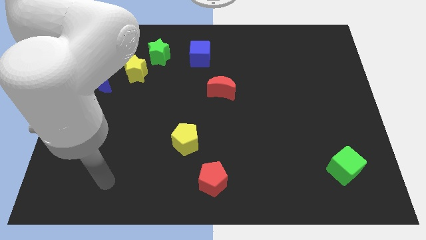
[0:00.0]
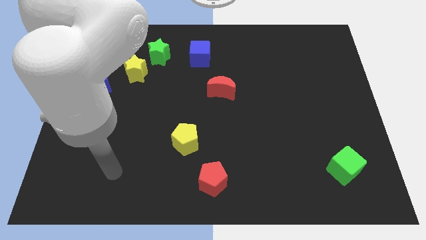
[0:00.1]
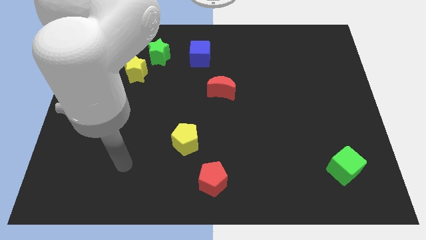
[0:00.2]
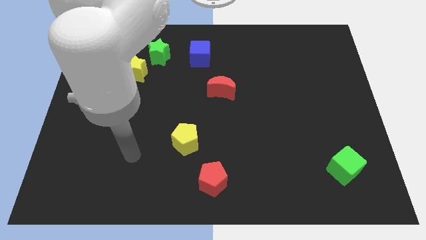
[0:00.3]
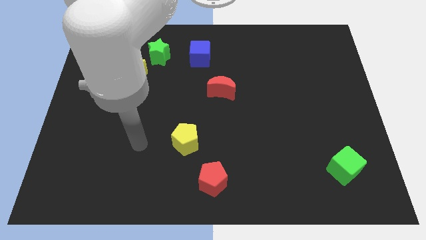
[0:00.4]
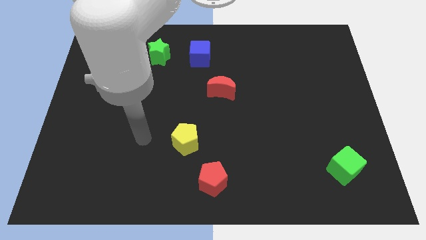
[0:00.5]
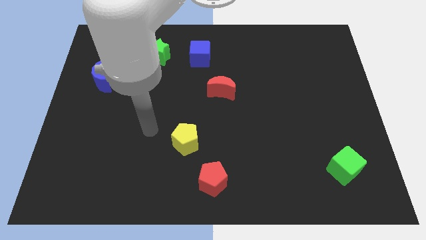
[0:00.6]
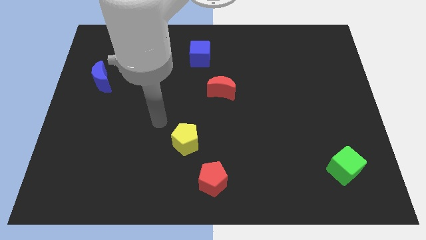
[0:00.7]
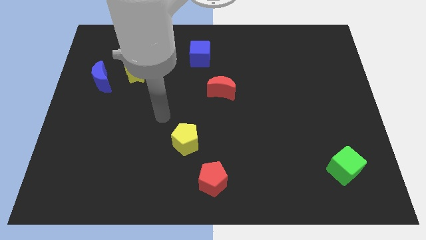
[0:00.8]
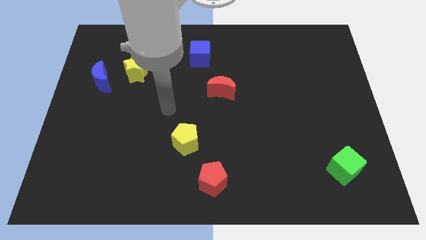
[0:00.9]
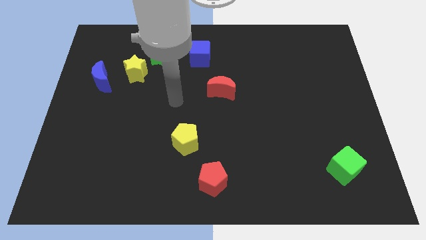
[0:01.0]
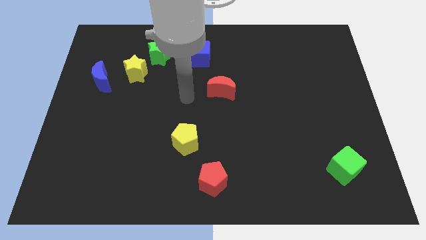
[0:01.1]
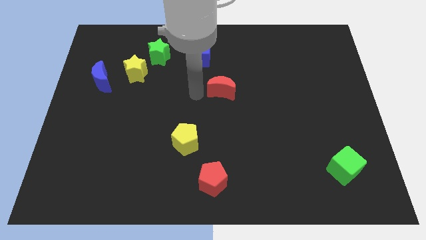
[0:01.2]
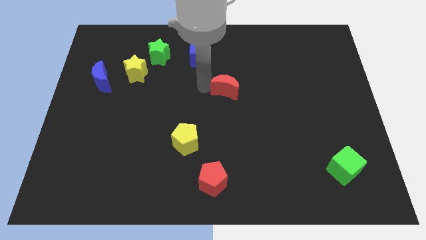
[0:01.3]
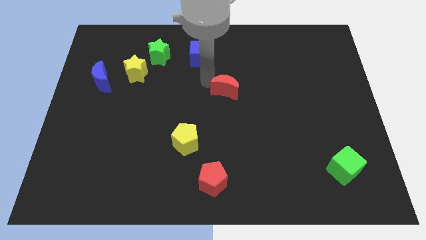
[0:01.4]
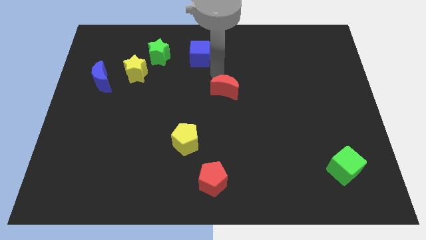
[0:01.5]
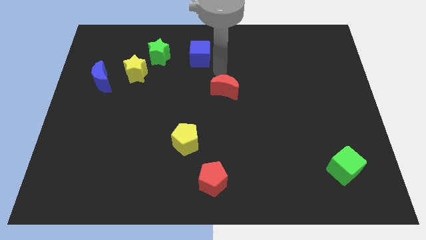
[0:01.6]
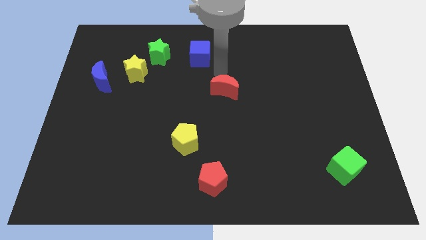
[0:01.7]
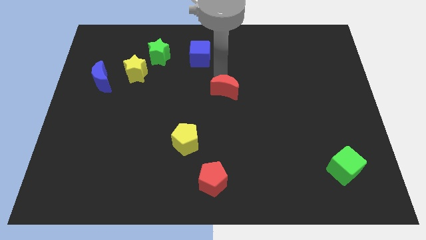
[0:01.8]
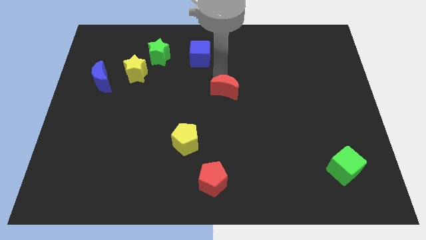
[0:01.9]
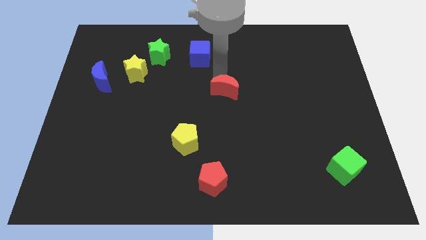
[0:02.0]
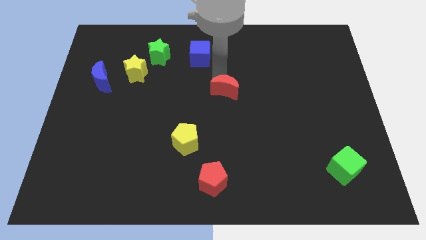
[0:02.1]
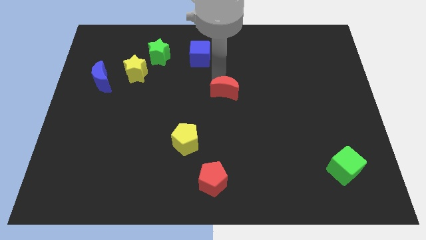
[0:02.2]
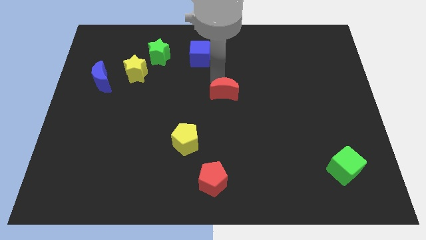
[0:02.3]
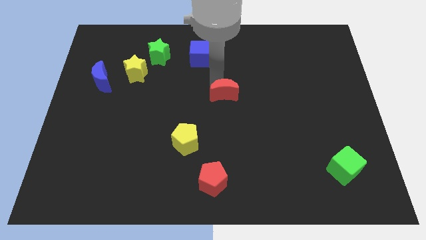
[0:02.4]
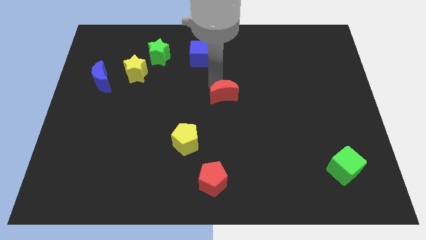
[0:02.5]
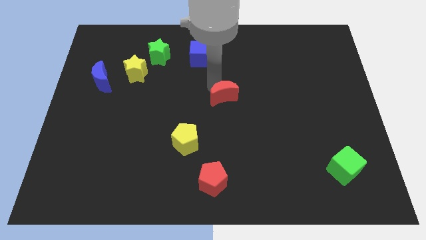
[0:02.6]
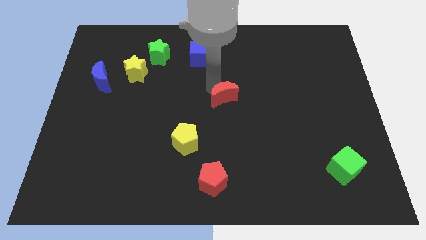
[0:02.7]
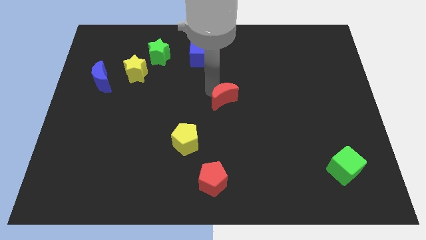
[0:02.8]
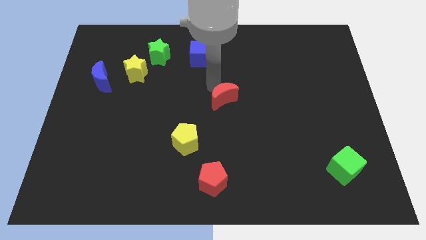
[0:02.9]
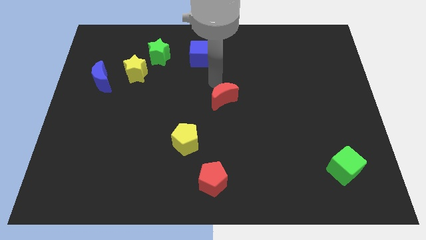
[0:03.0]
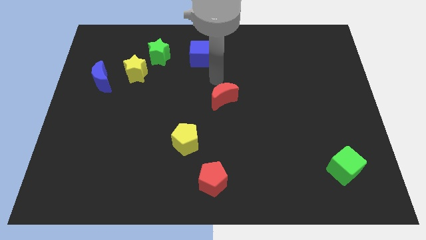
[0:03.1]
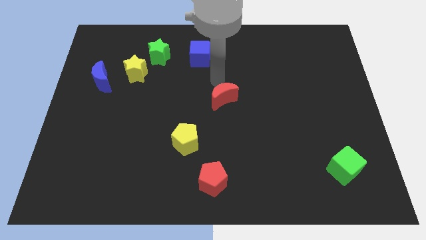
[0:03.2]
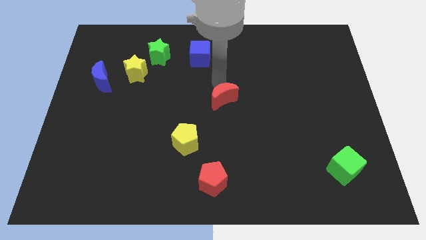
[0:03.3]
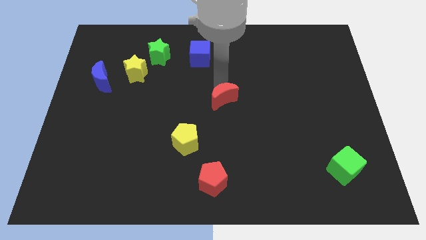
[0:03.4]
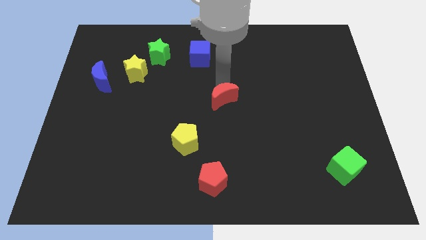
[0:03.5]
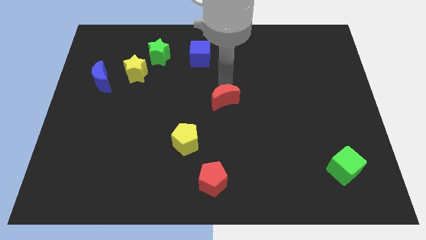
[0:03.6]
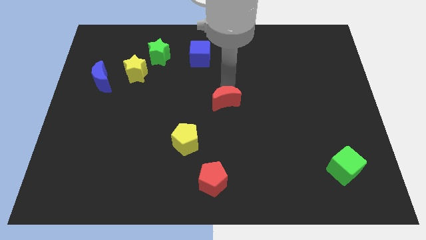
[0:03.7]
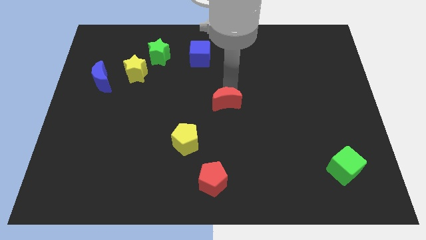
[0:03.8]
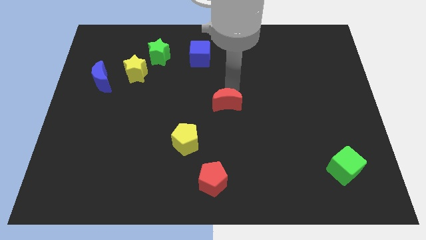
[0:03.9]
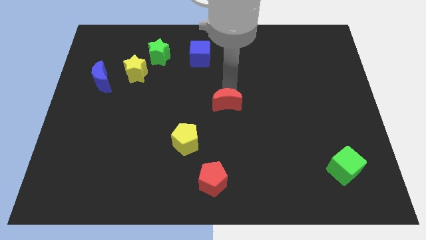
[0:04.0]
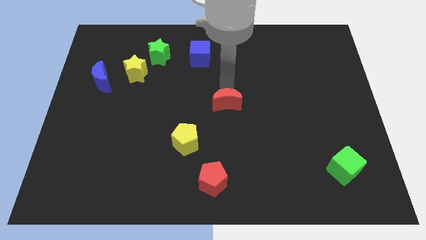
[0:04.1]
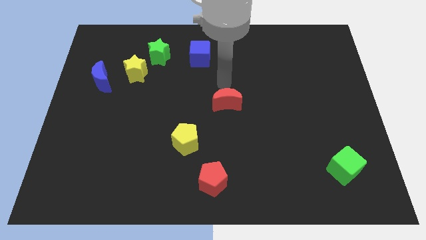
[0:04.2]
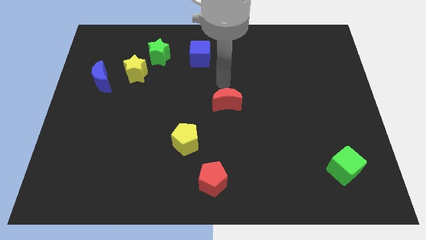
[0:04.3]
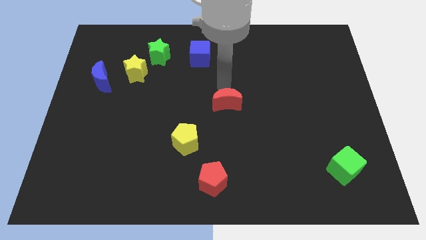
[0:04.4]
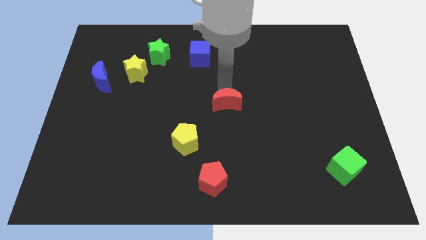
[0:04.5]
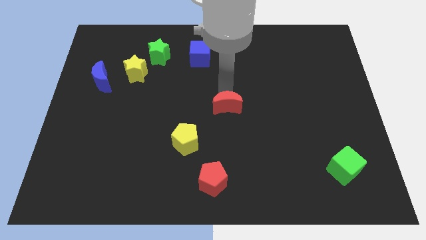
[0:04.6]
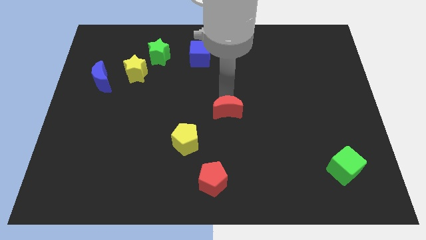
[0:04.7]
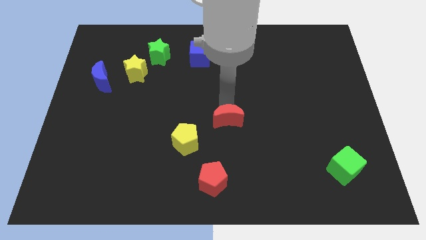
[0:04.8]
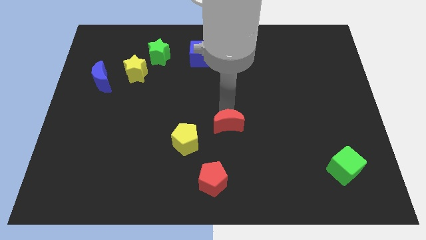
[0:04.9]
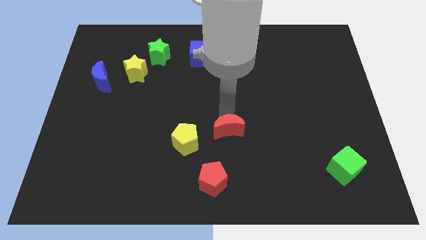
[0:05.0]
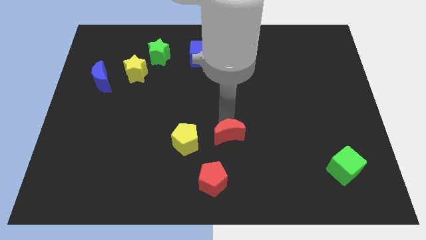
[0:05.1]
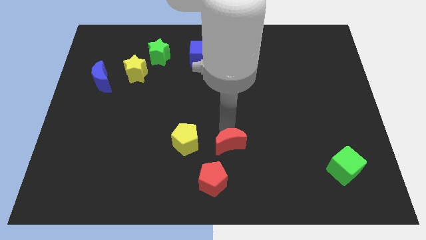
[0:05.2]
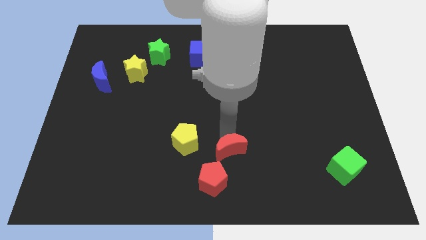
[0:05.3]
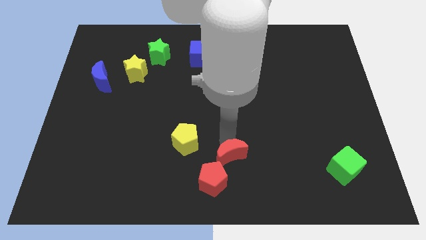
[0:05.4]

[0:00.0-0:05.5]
move the red moon to the bottom side

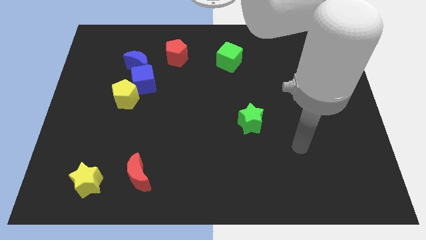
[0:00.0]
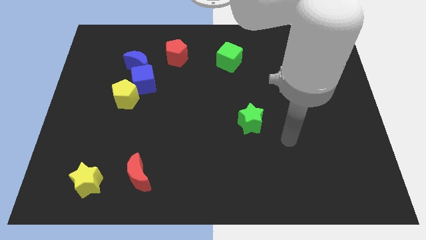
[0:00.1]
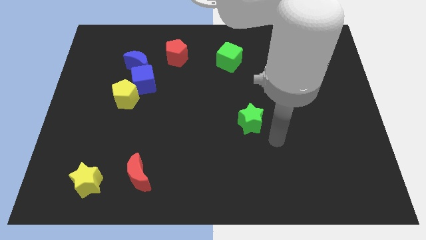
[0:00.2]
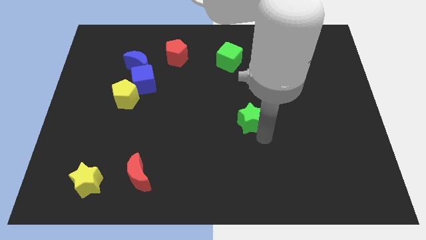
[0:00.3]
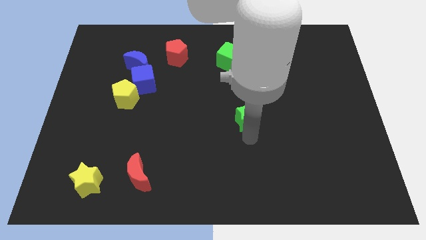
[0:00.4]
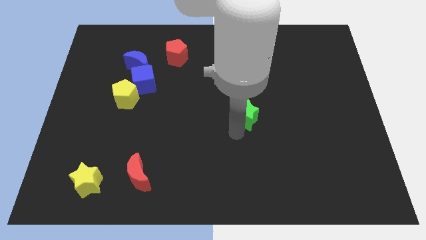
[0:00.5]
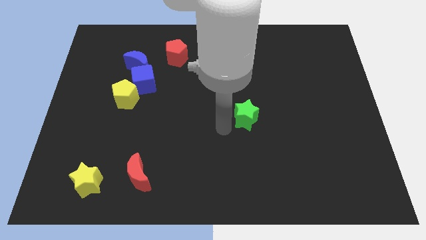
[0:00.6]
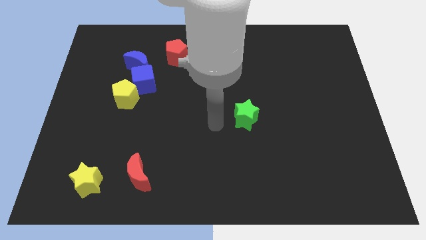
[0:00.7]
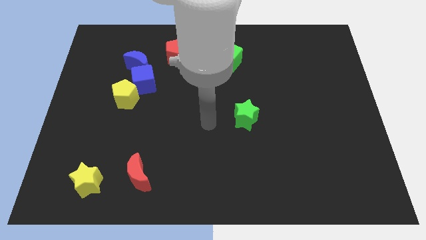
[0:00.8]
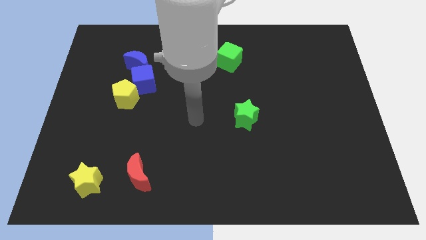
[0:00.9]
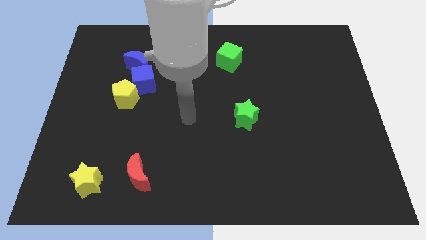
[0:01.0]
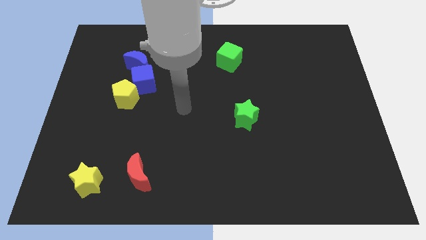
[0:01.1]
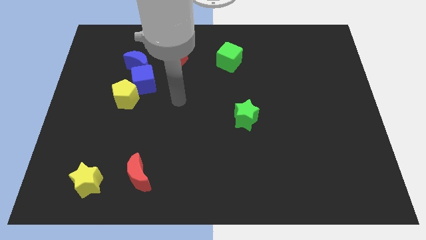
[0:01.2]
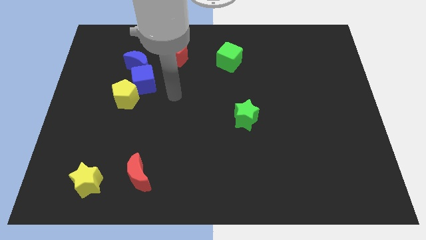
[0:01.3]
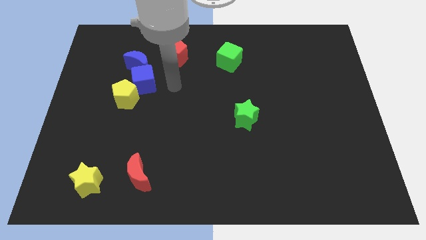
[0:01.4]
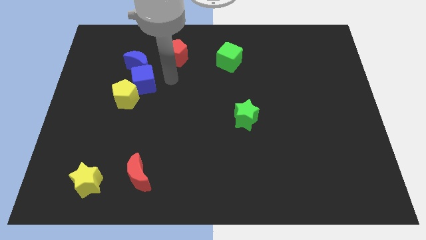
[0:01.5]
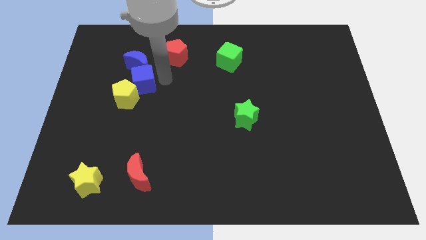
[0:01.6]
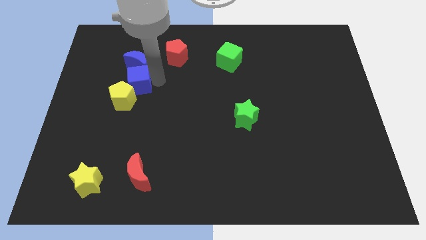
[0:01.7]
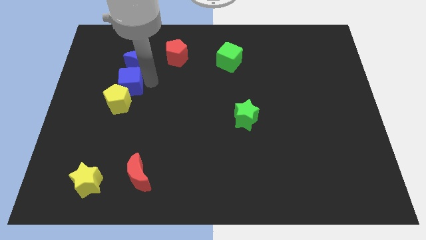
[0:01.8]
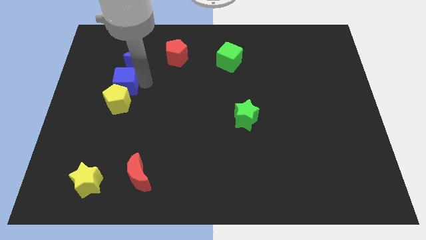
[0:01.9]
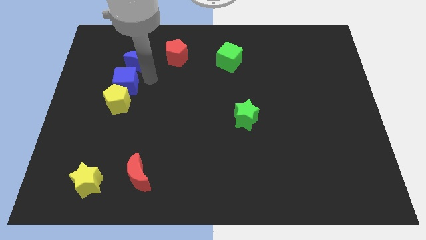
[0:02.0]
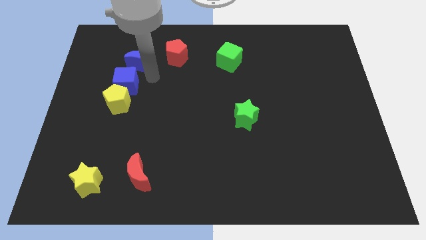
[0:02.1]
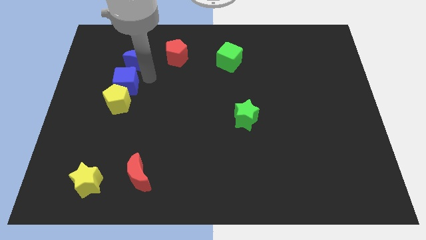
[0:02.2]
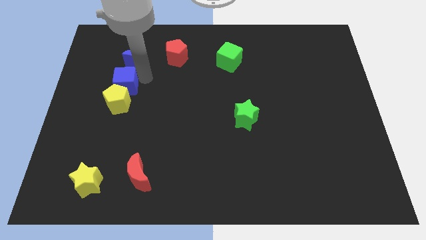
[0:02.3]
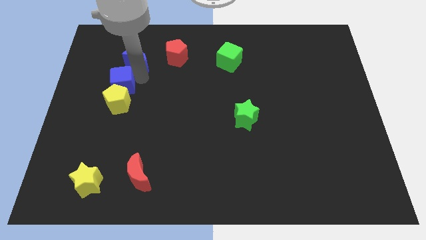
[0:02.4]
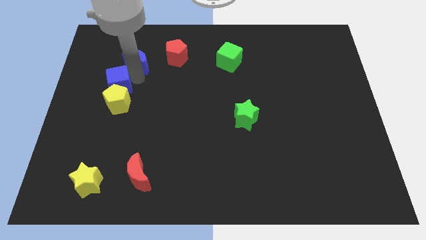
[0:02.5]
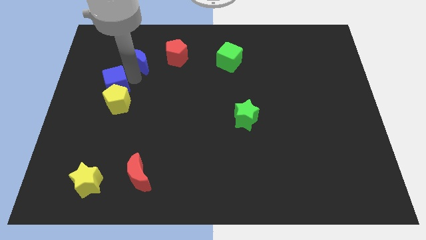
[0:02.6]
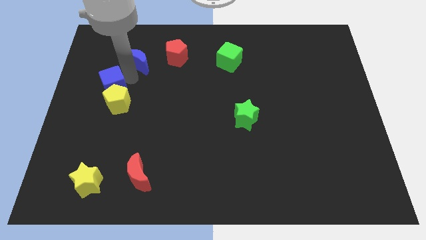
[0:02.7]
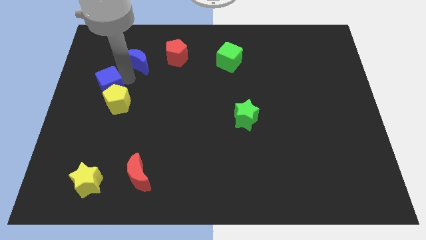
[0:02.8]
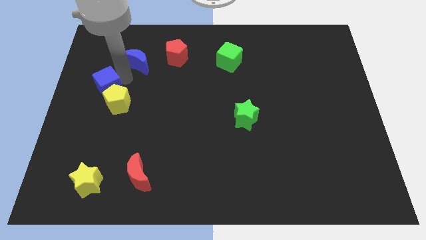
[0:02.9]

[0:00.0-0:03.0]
slide the blue cube to the left side of the board
